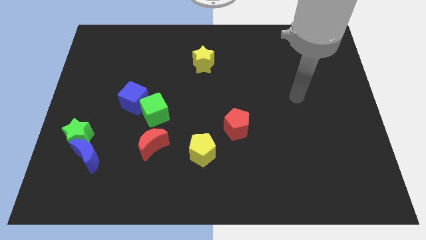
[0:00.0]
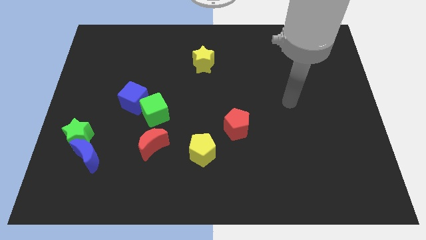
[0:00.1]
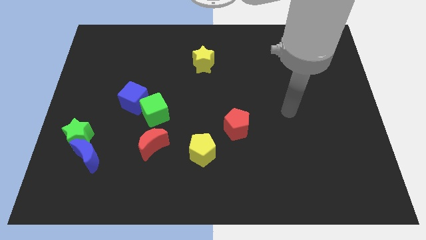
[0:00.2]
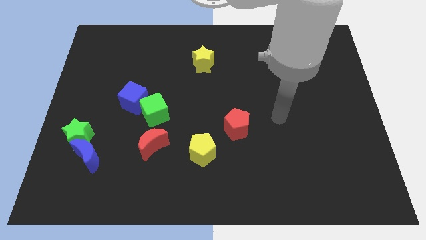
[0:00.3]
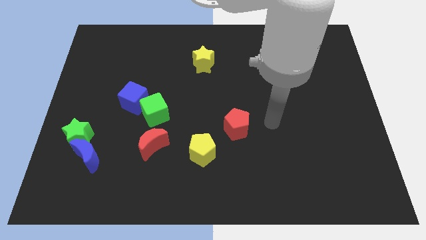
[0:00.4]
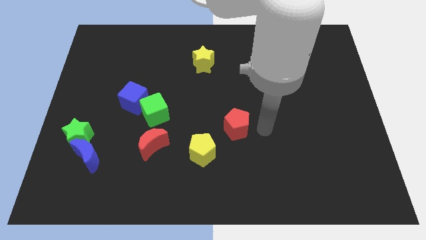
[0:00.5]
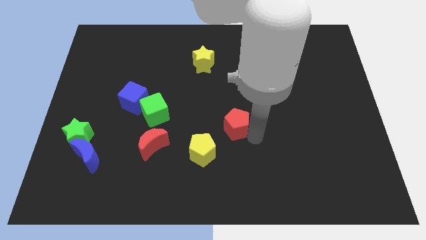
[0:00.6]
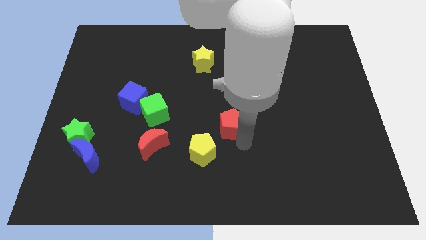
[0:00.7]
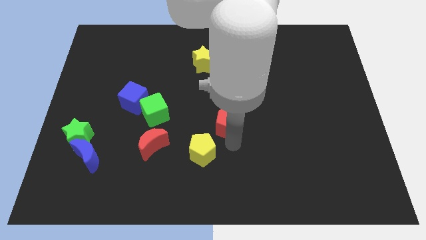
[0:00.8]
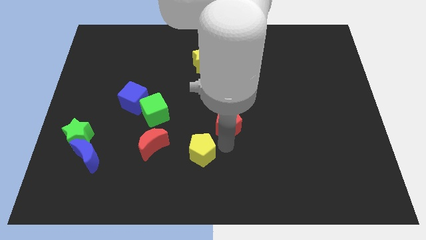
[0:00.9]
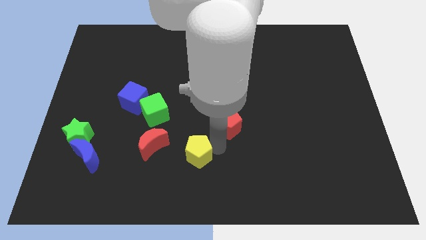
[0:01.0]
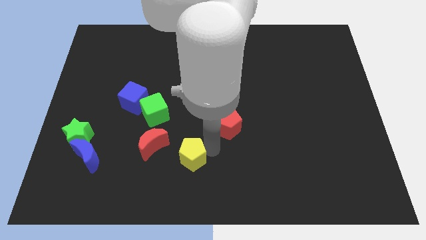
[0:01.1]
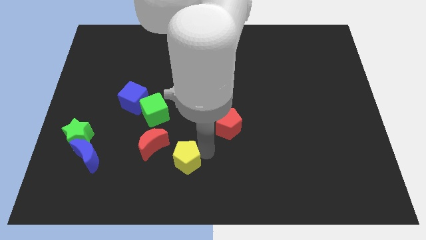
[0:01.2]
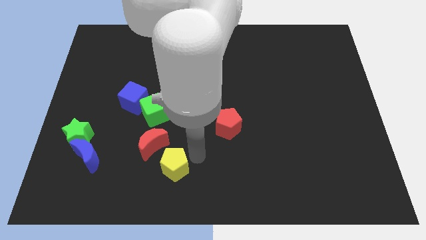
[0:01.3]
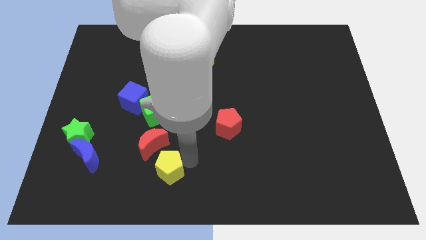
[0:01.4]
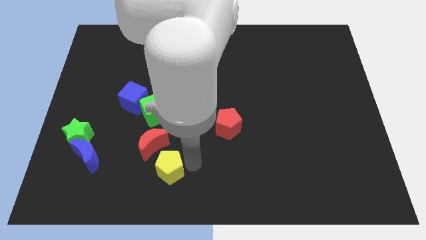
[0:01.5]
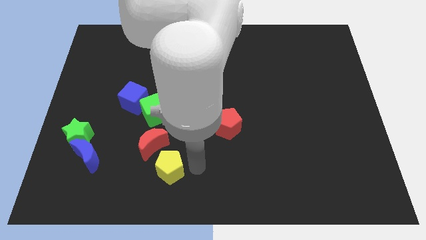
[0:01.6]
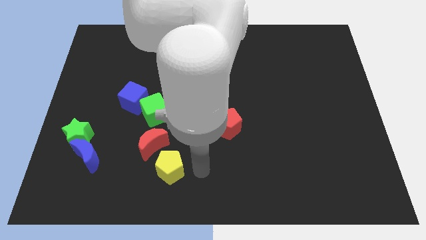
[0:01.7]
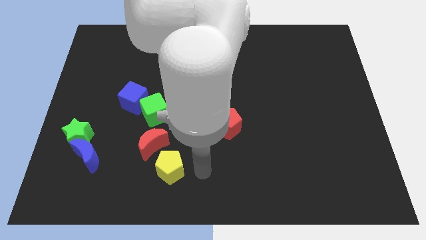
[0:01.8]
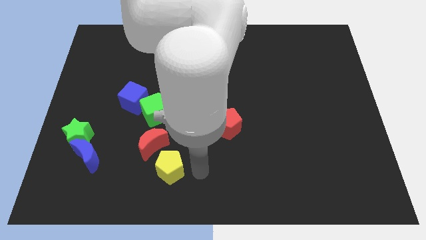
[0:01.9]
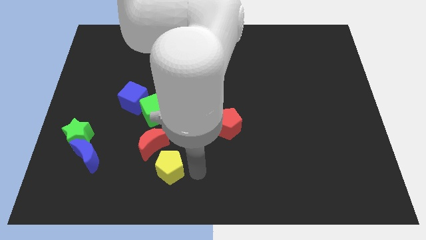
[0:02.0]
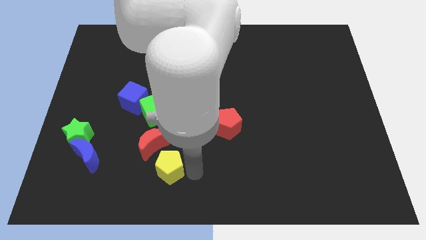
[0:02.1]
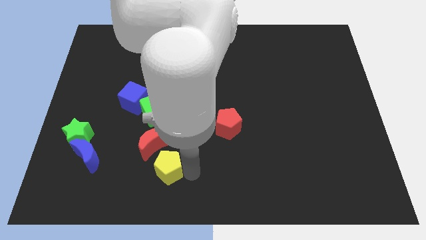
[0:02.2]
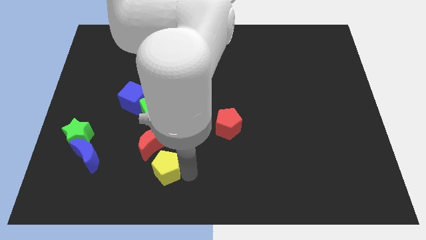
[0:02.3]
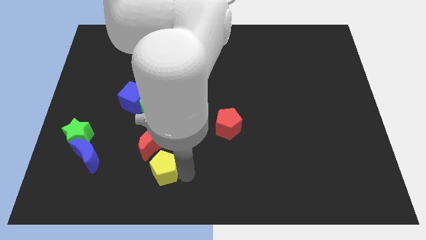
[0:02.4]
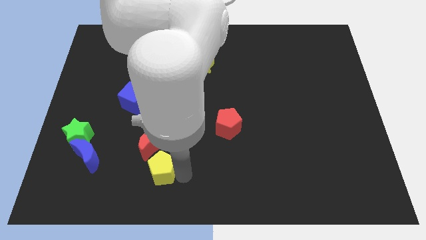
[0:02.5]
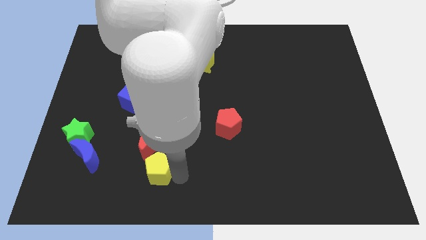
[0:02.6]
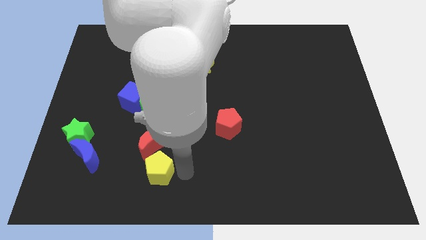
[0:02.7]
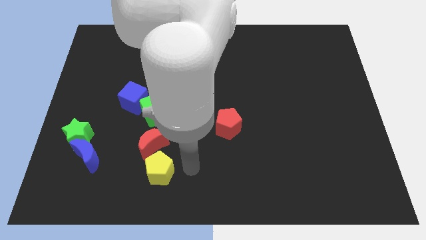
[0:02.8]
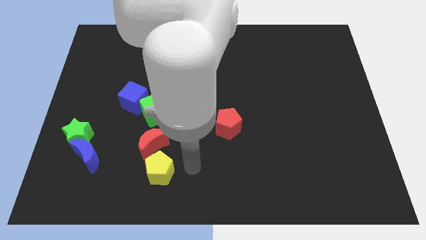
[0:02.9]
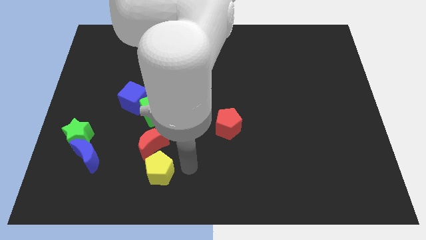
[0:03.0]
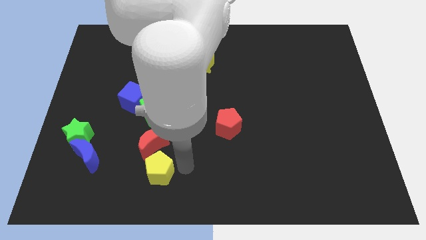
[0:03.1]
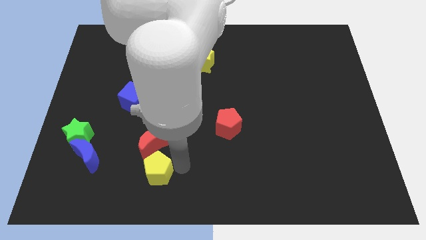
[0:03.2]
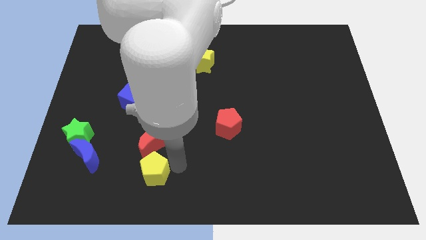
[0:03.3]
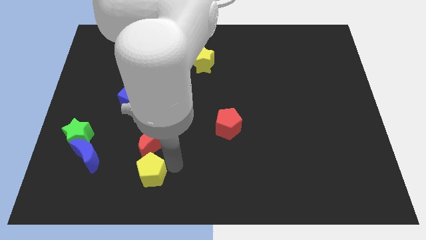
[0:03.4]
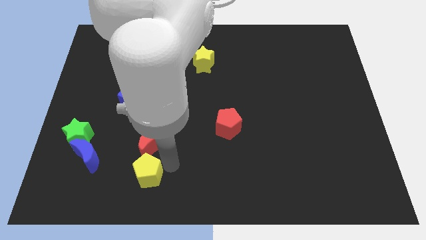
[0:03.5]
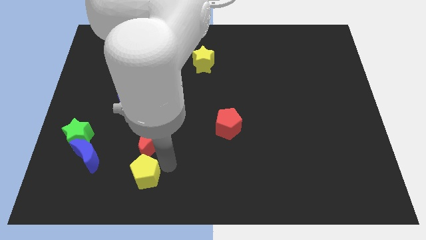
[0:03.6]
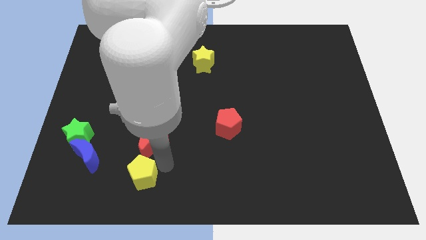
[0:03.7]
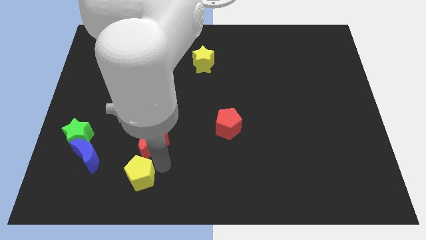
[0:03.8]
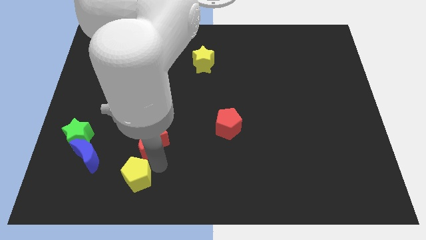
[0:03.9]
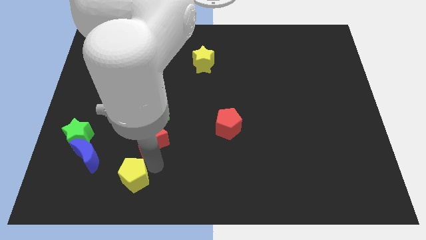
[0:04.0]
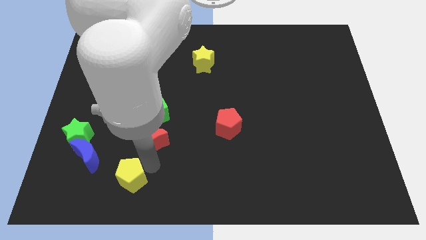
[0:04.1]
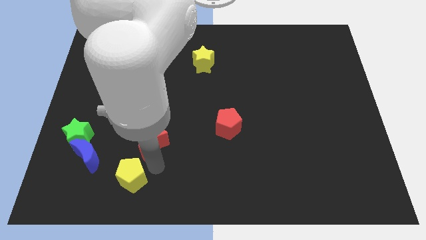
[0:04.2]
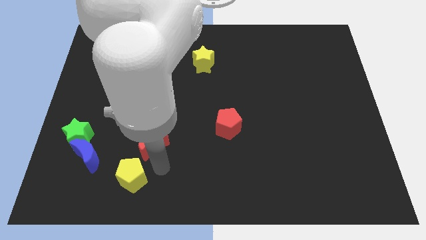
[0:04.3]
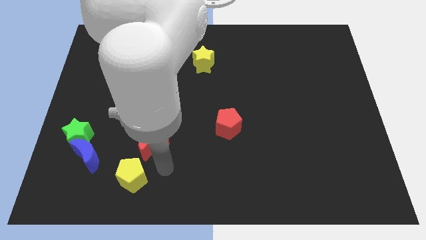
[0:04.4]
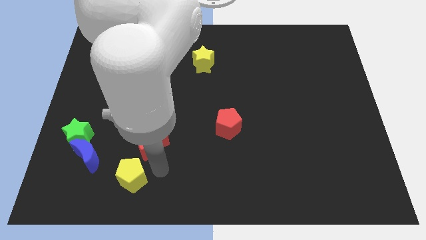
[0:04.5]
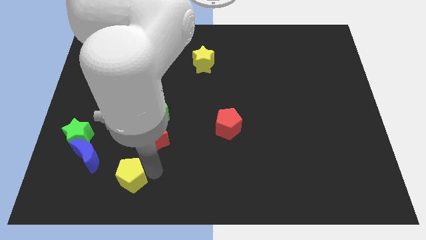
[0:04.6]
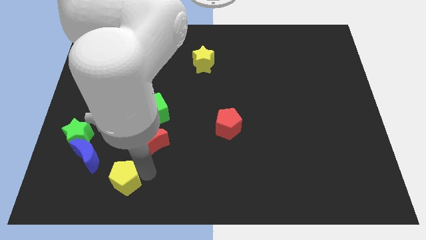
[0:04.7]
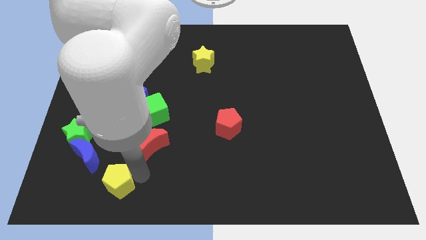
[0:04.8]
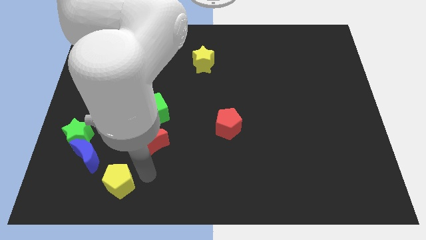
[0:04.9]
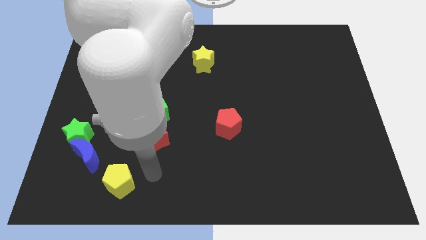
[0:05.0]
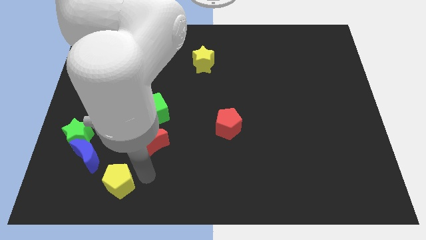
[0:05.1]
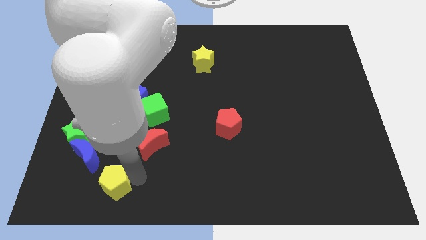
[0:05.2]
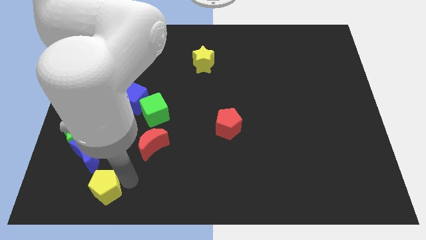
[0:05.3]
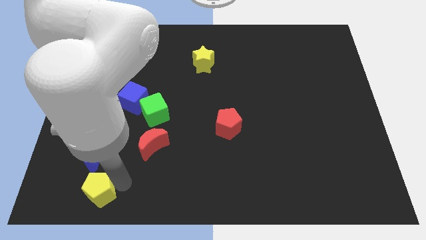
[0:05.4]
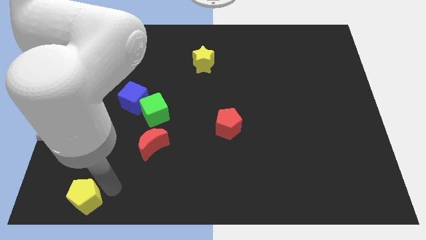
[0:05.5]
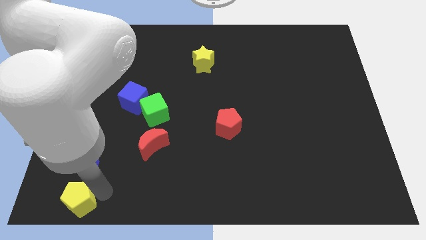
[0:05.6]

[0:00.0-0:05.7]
move the yellow pentagon to the lower left corner

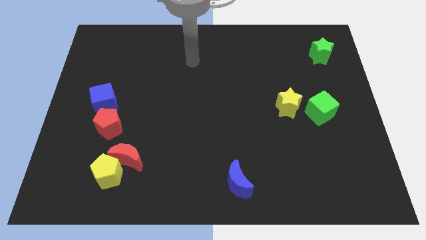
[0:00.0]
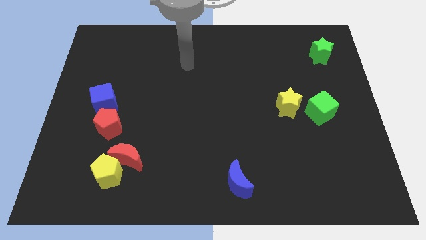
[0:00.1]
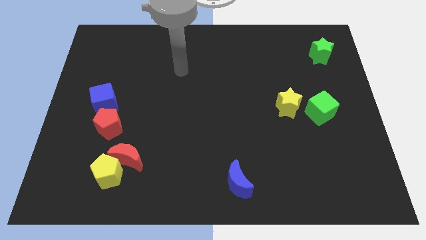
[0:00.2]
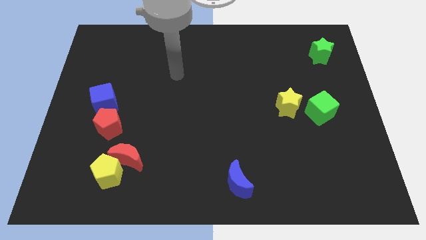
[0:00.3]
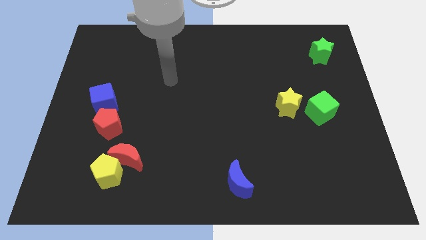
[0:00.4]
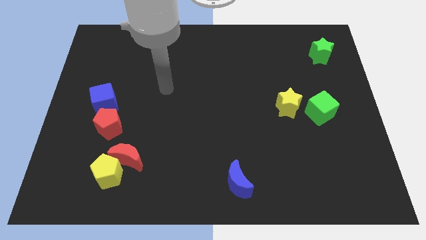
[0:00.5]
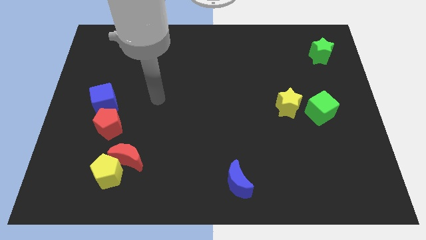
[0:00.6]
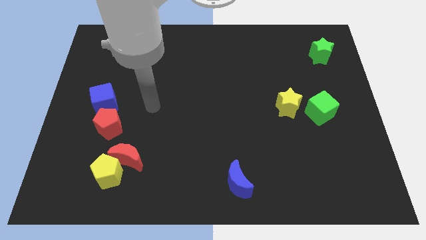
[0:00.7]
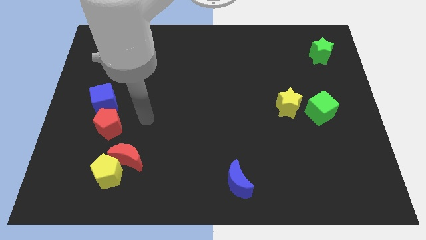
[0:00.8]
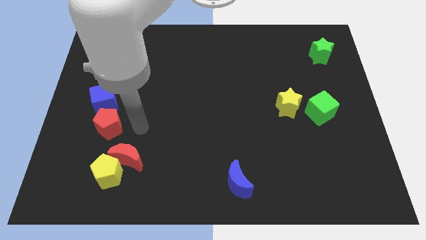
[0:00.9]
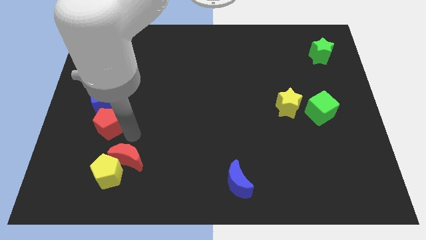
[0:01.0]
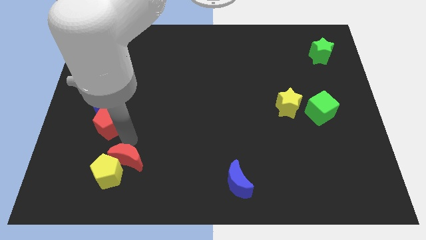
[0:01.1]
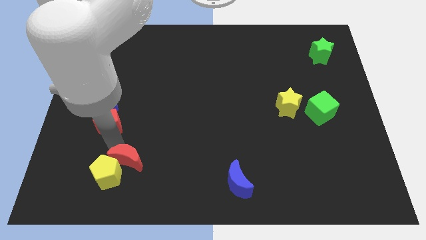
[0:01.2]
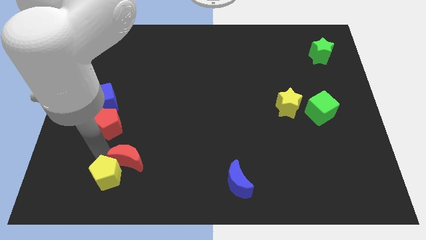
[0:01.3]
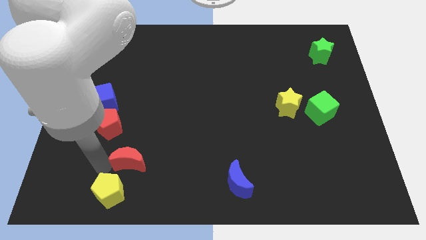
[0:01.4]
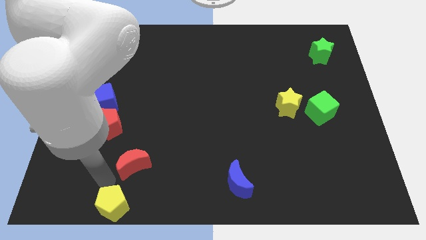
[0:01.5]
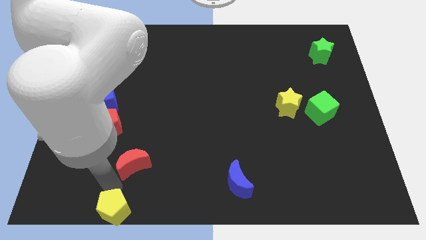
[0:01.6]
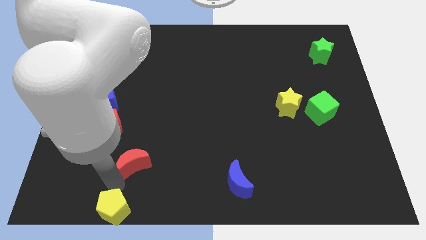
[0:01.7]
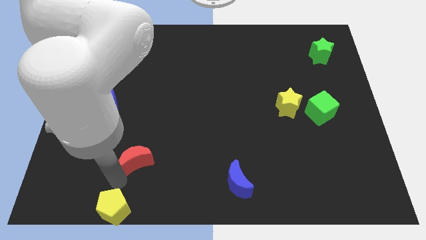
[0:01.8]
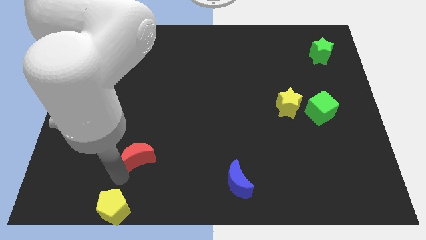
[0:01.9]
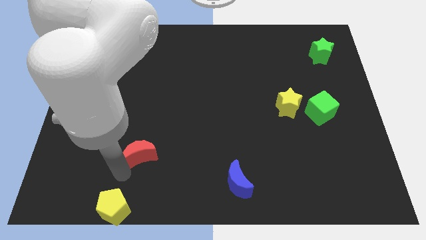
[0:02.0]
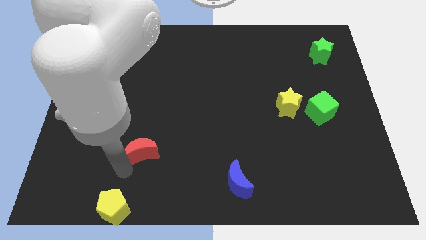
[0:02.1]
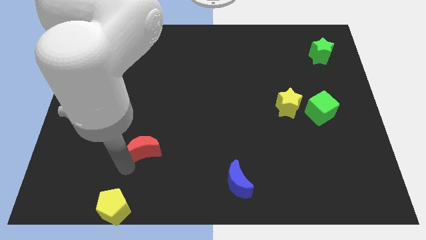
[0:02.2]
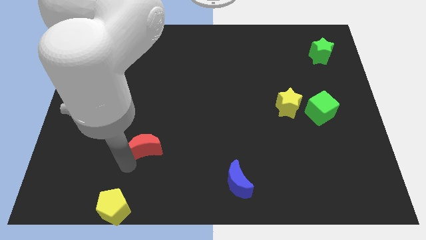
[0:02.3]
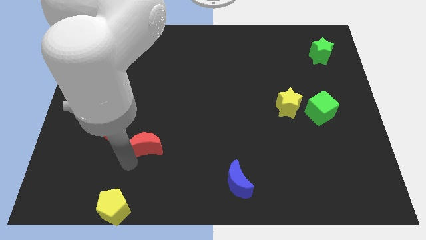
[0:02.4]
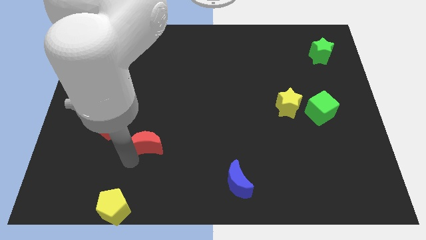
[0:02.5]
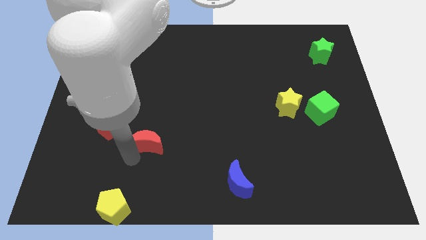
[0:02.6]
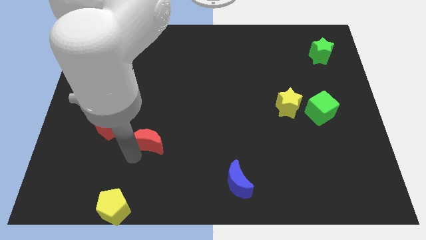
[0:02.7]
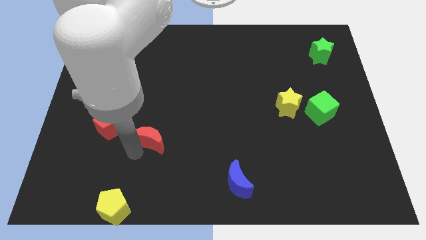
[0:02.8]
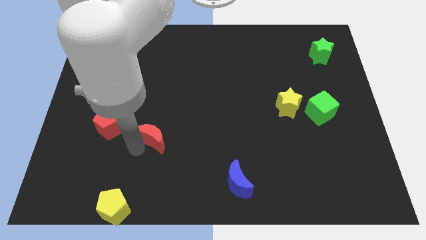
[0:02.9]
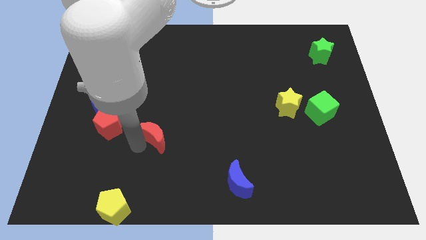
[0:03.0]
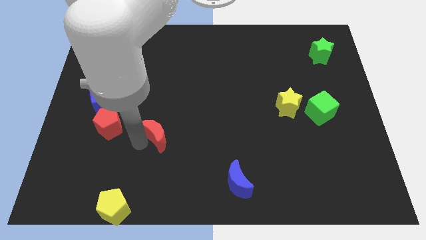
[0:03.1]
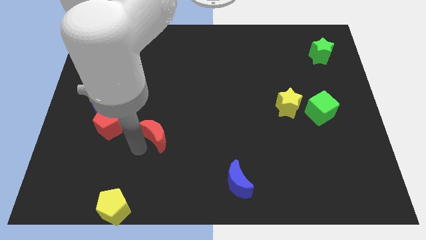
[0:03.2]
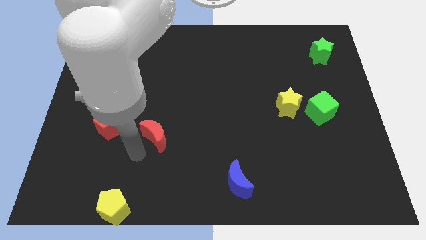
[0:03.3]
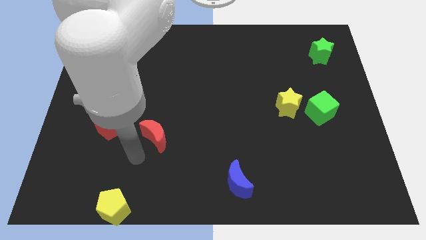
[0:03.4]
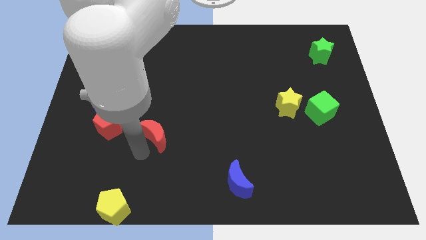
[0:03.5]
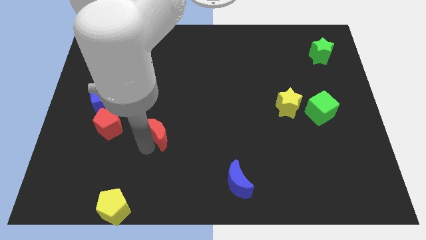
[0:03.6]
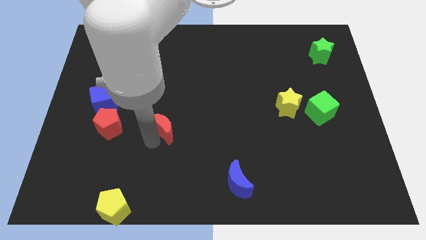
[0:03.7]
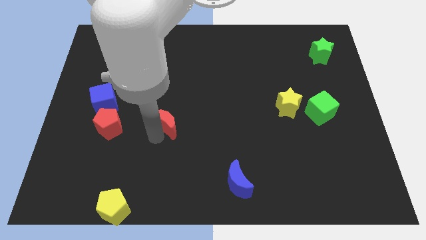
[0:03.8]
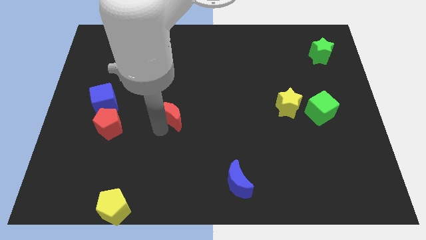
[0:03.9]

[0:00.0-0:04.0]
push the red moon to the center
